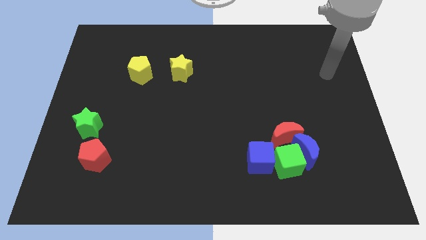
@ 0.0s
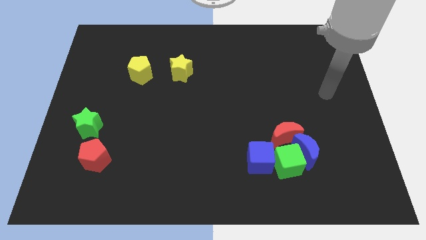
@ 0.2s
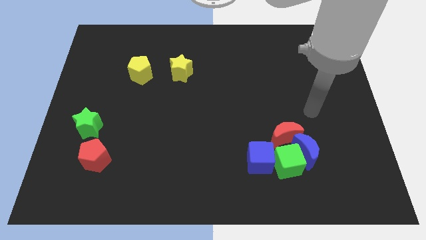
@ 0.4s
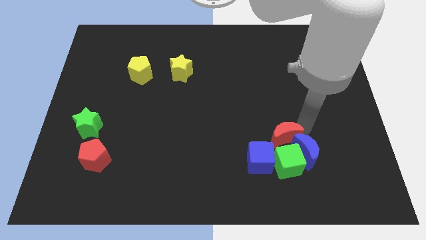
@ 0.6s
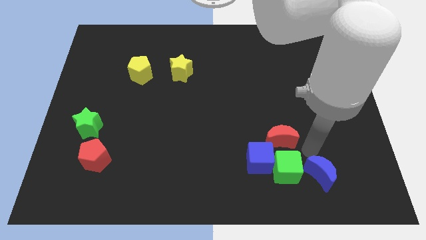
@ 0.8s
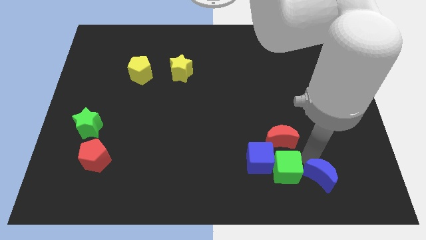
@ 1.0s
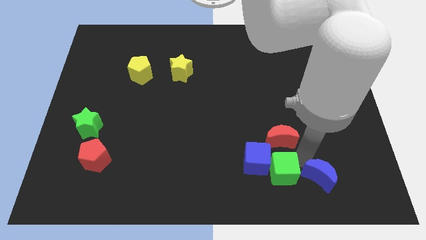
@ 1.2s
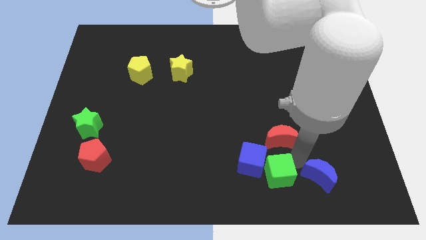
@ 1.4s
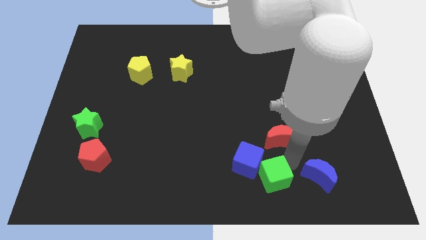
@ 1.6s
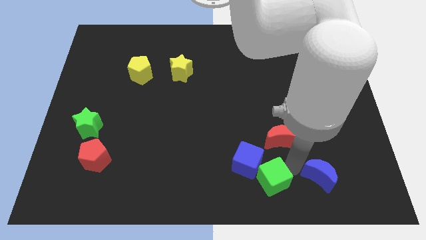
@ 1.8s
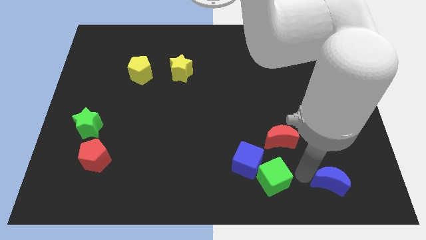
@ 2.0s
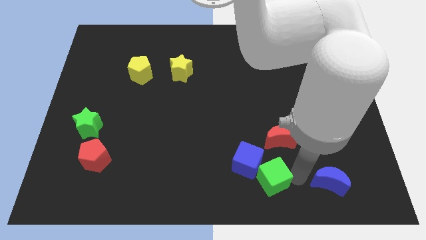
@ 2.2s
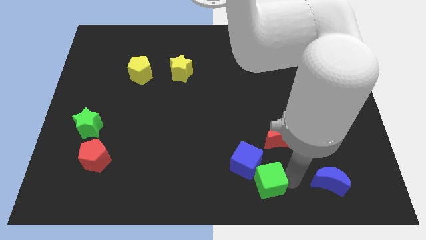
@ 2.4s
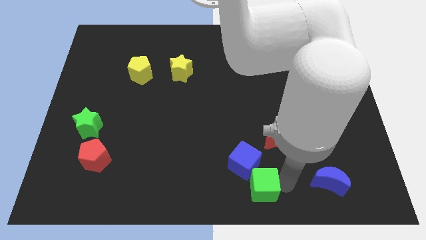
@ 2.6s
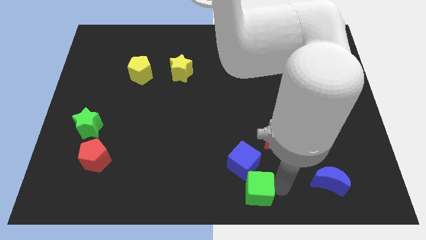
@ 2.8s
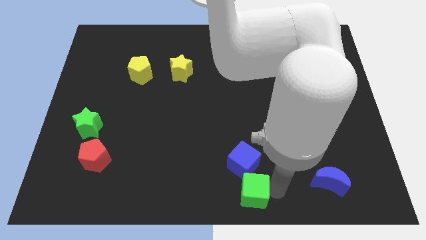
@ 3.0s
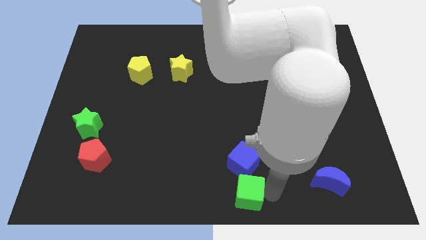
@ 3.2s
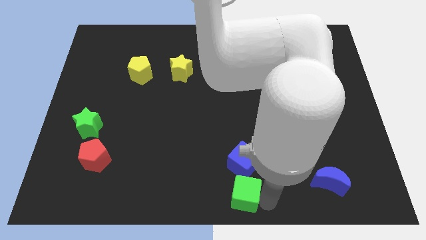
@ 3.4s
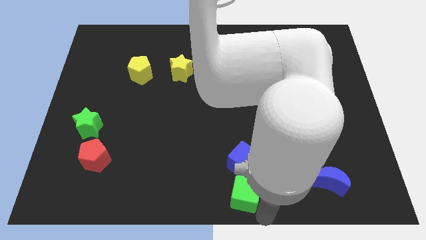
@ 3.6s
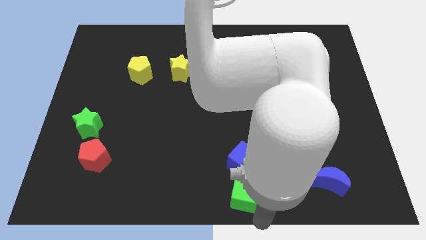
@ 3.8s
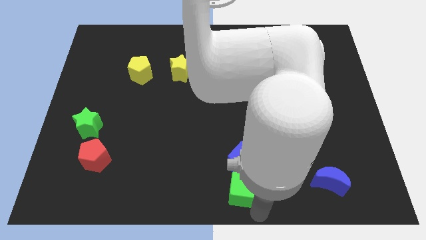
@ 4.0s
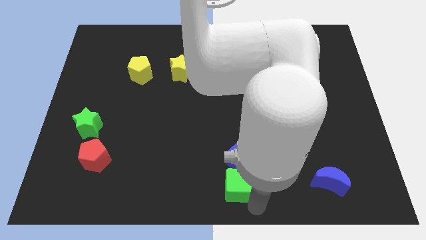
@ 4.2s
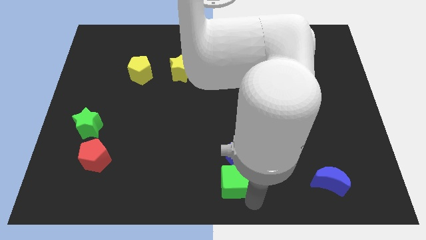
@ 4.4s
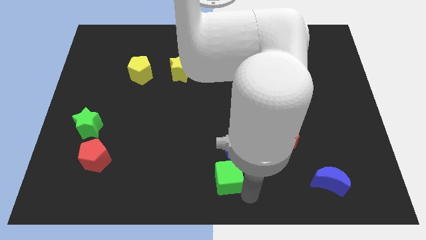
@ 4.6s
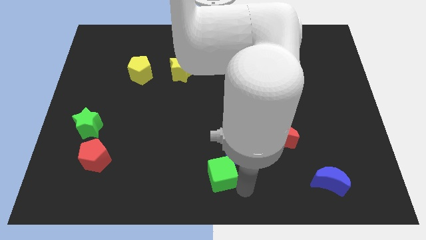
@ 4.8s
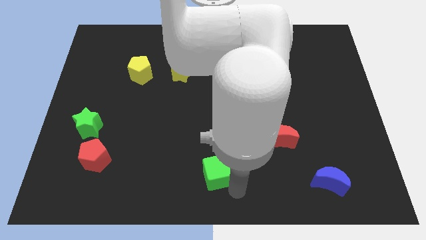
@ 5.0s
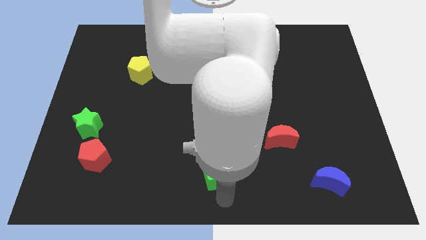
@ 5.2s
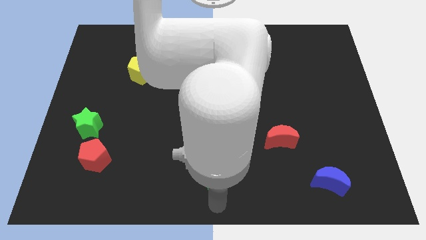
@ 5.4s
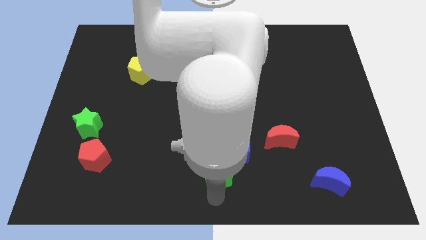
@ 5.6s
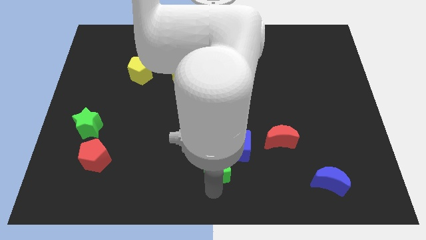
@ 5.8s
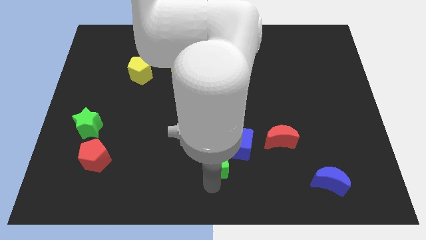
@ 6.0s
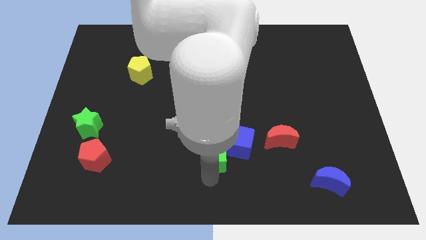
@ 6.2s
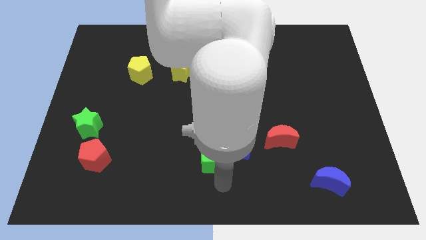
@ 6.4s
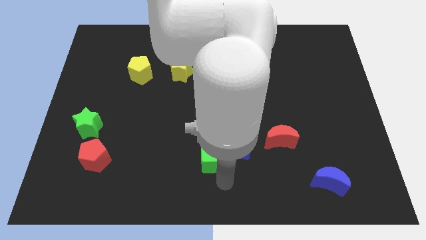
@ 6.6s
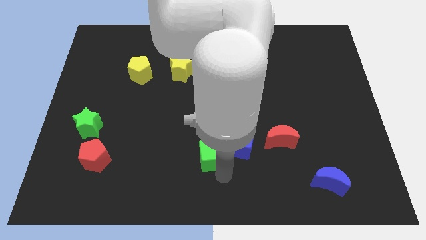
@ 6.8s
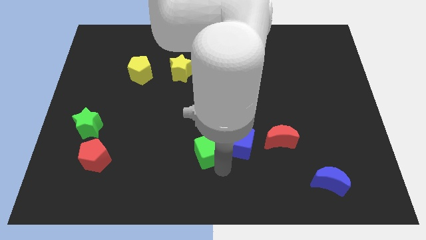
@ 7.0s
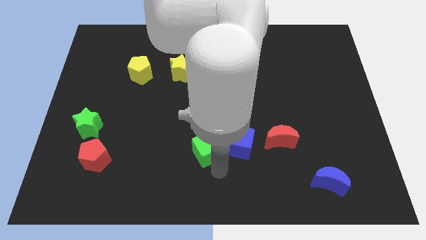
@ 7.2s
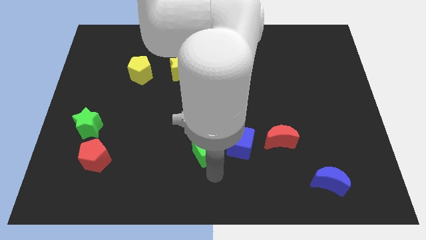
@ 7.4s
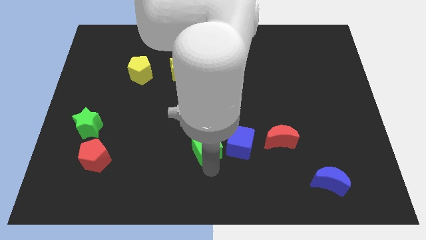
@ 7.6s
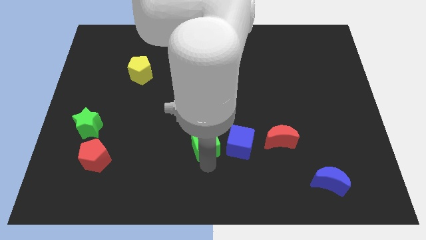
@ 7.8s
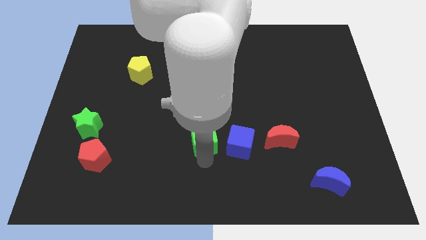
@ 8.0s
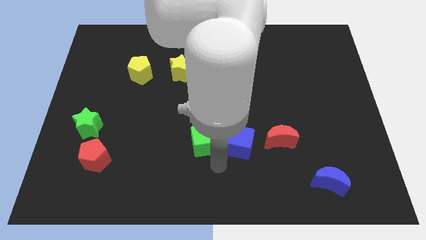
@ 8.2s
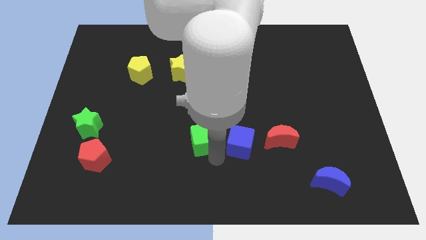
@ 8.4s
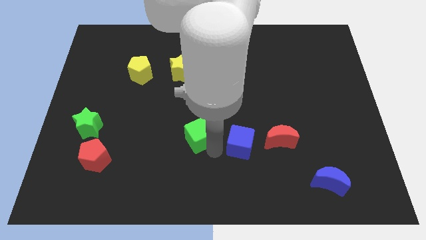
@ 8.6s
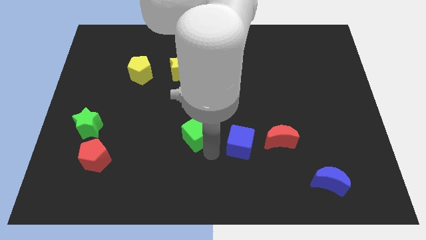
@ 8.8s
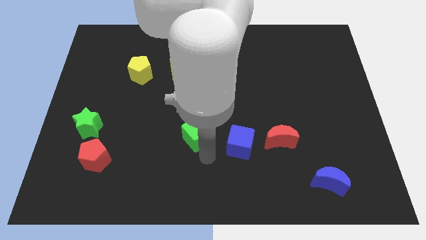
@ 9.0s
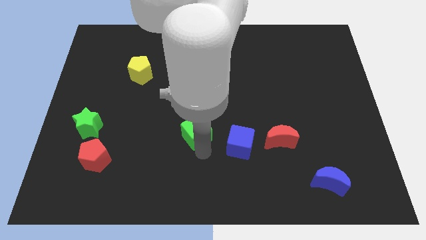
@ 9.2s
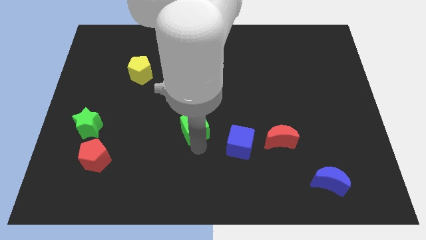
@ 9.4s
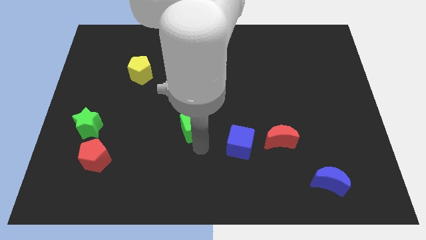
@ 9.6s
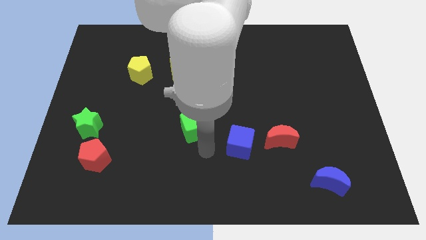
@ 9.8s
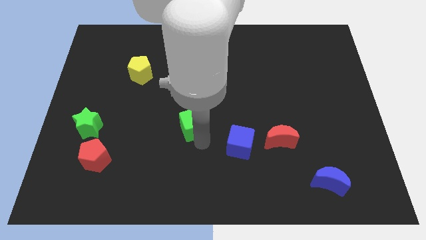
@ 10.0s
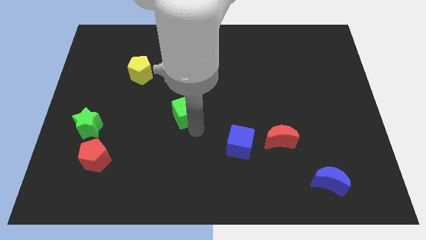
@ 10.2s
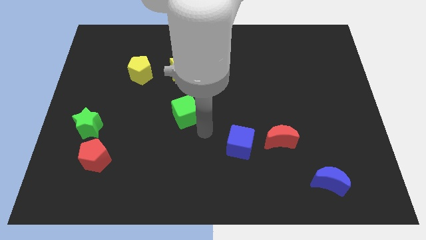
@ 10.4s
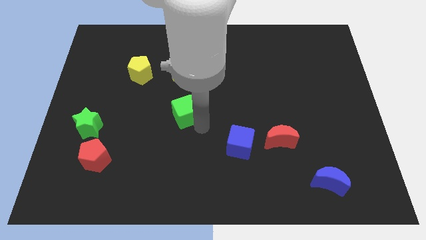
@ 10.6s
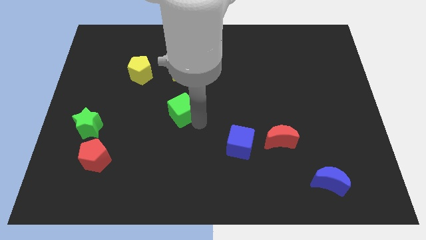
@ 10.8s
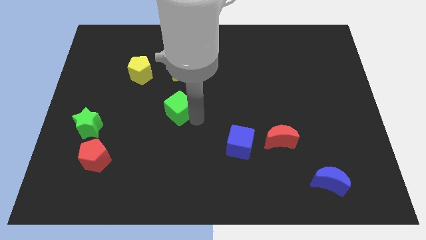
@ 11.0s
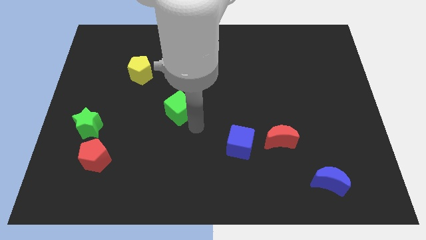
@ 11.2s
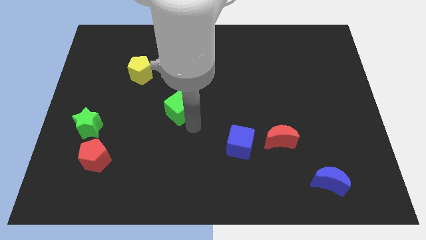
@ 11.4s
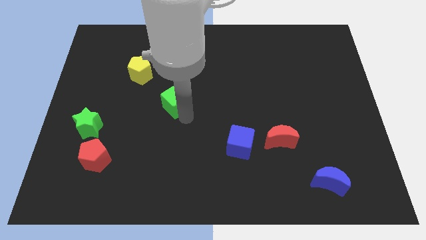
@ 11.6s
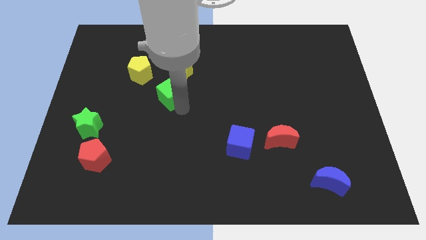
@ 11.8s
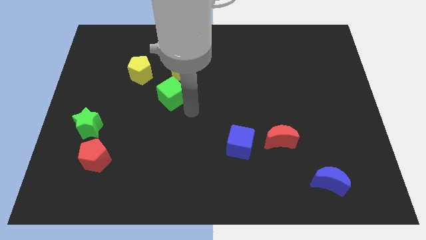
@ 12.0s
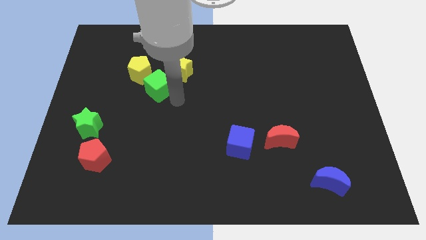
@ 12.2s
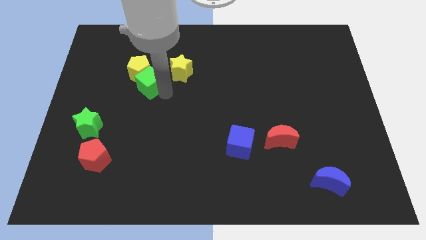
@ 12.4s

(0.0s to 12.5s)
push the green cube close to the yellow pentagon
